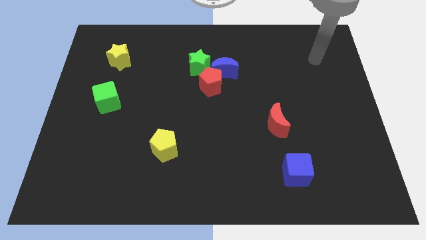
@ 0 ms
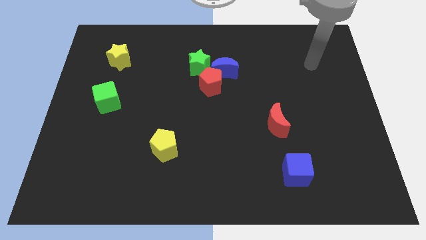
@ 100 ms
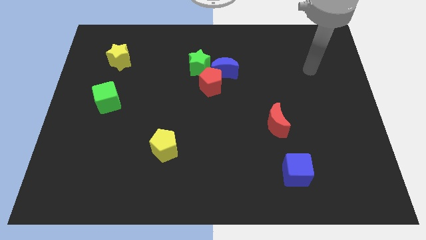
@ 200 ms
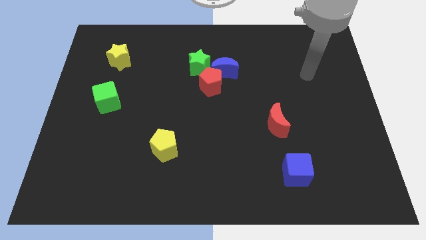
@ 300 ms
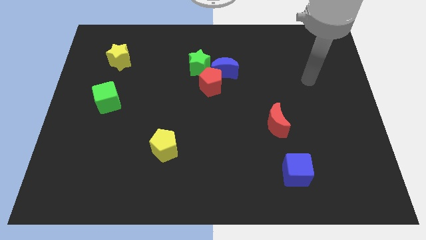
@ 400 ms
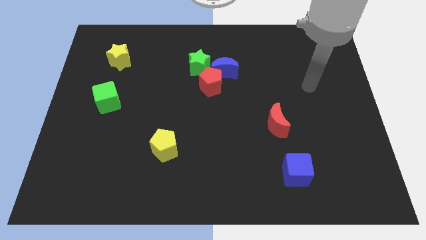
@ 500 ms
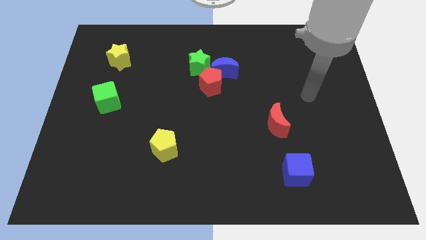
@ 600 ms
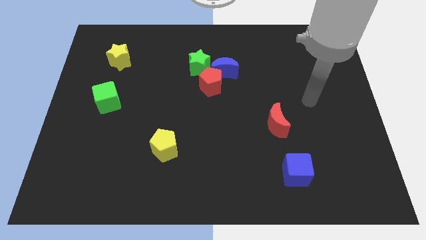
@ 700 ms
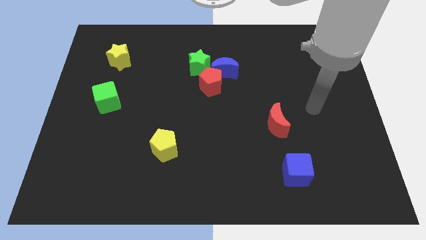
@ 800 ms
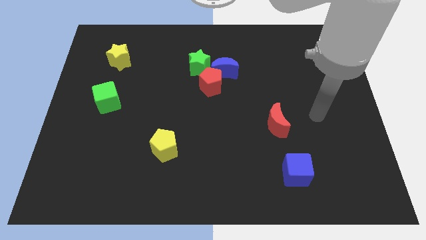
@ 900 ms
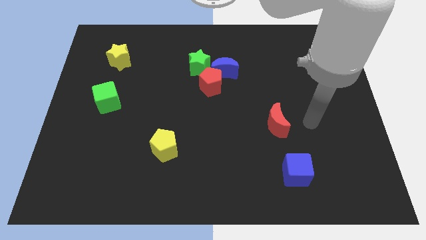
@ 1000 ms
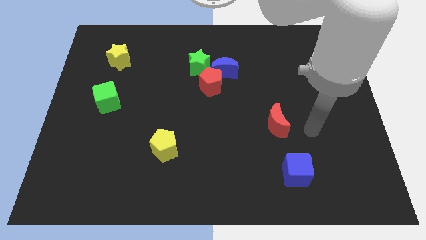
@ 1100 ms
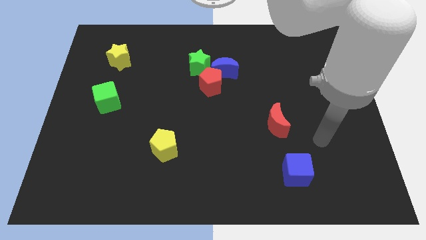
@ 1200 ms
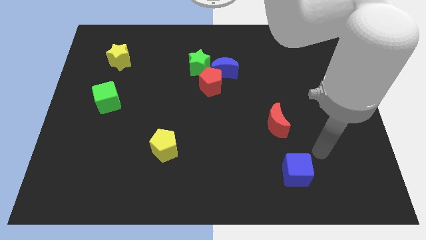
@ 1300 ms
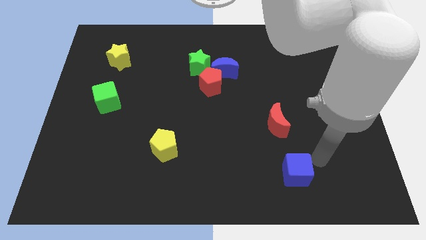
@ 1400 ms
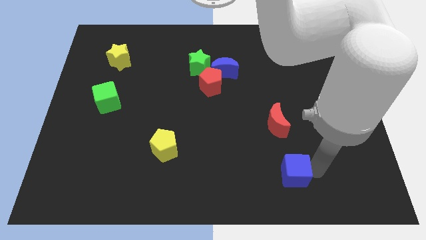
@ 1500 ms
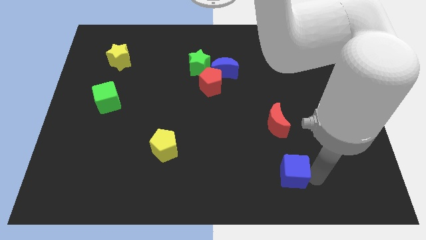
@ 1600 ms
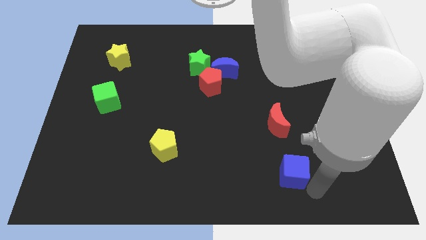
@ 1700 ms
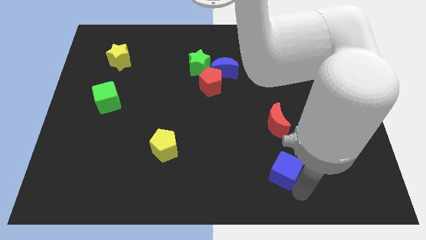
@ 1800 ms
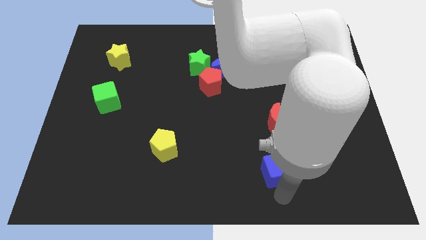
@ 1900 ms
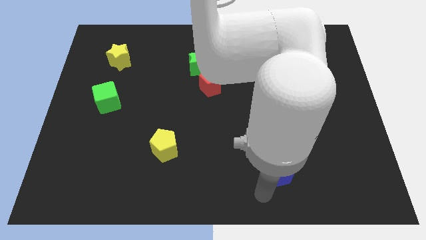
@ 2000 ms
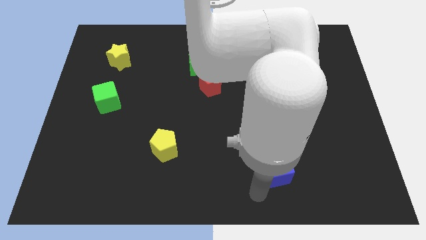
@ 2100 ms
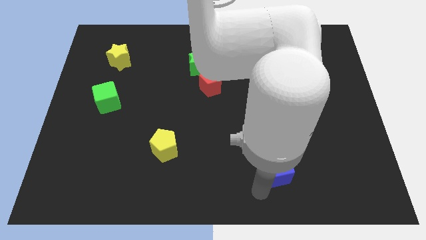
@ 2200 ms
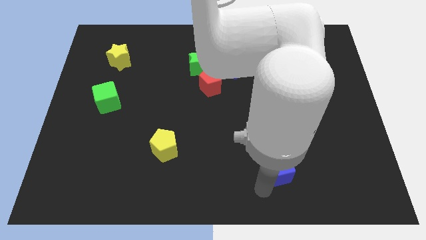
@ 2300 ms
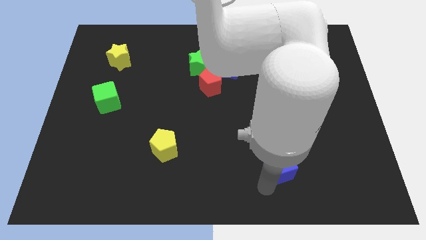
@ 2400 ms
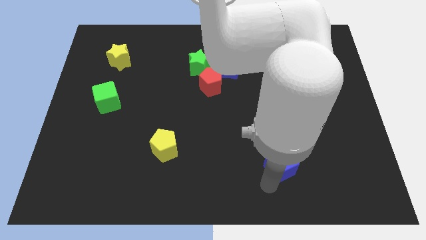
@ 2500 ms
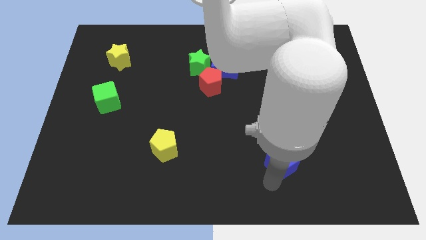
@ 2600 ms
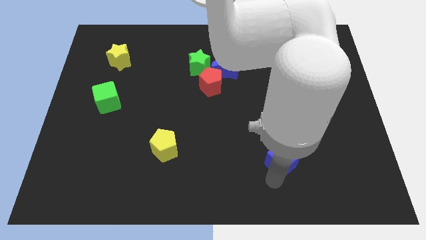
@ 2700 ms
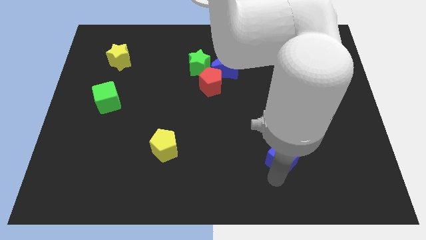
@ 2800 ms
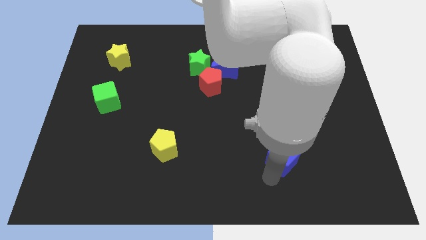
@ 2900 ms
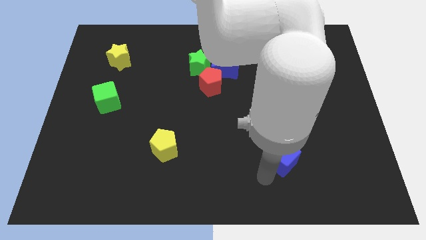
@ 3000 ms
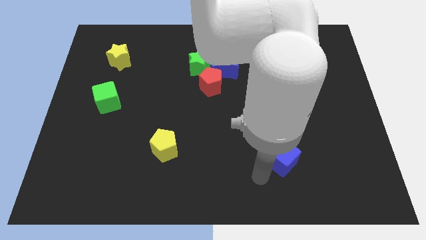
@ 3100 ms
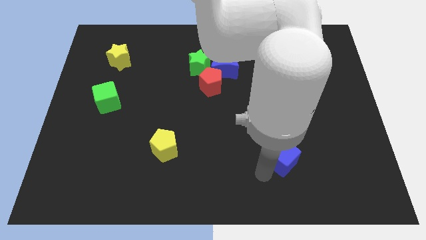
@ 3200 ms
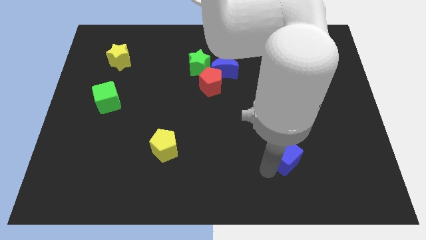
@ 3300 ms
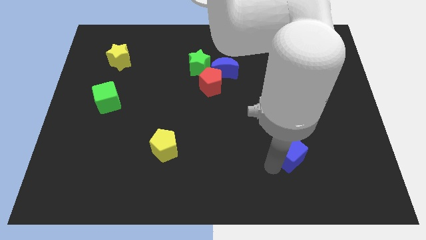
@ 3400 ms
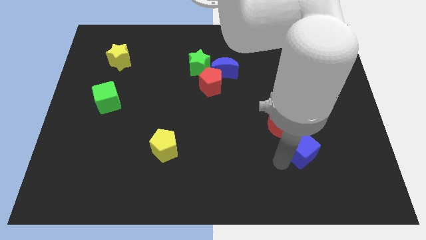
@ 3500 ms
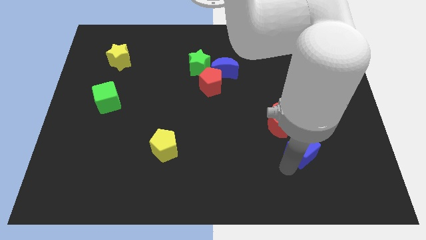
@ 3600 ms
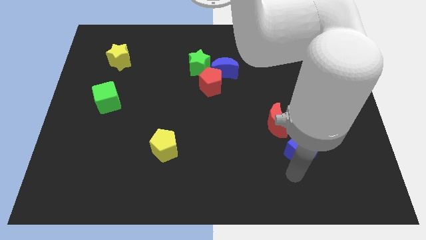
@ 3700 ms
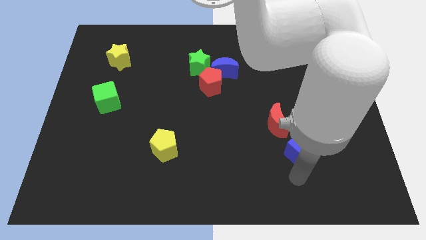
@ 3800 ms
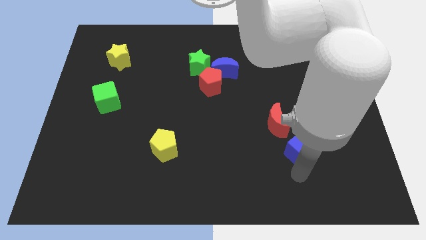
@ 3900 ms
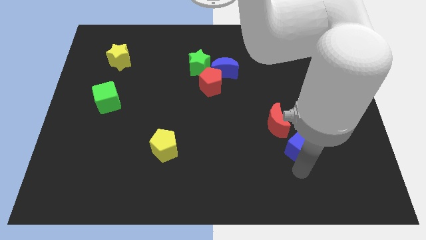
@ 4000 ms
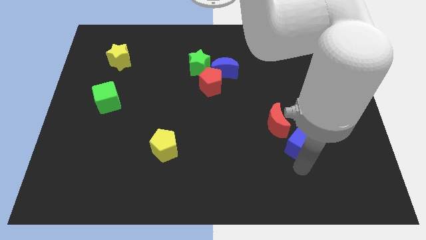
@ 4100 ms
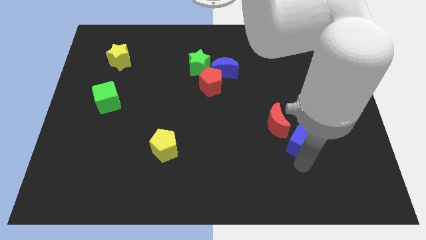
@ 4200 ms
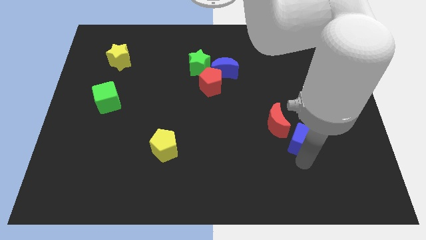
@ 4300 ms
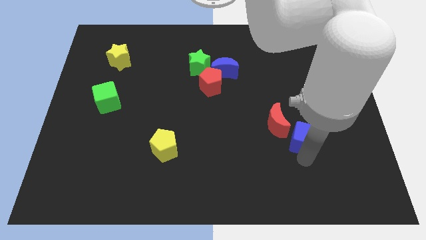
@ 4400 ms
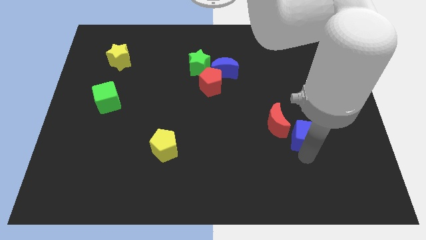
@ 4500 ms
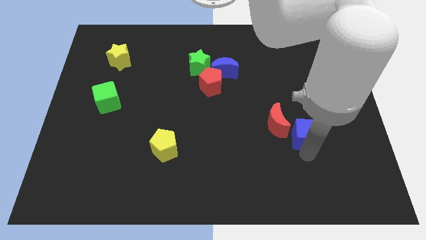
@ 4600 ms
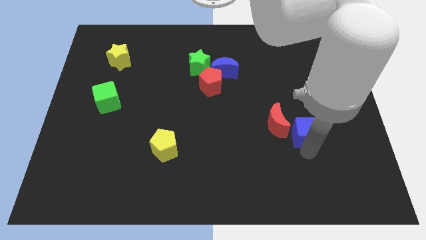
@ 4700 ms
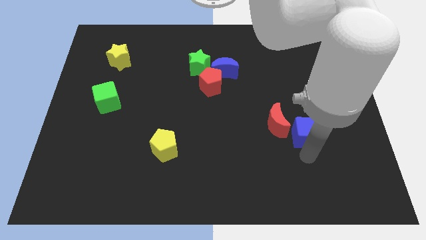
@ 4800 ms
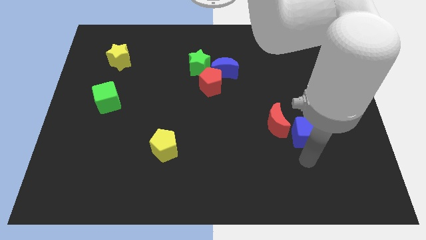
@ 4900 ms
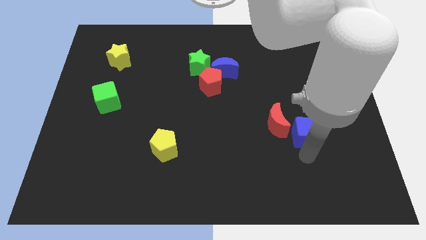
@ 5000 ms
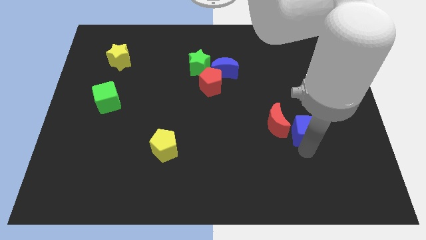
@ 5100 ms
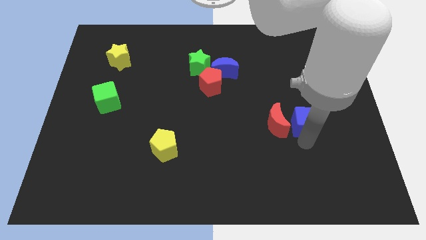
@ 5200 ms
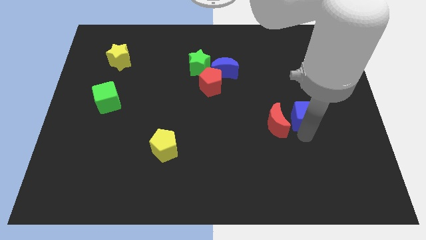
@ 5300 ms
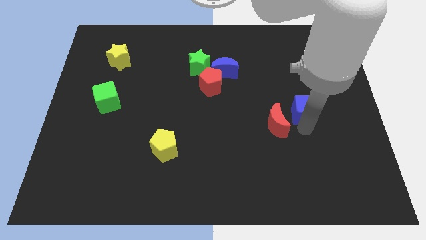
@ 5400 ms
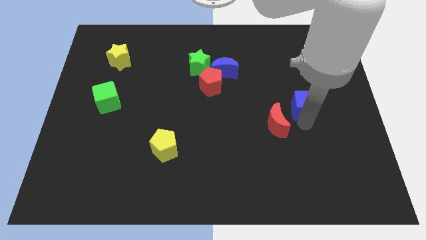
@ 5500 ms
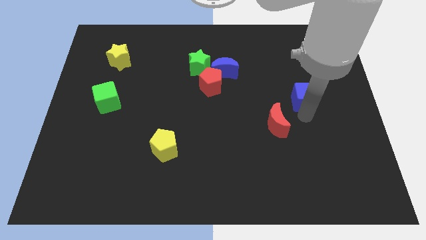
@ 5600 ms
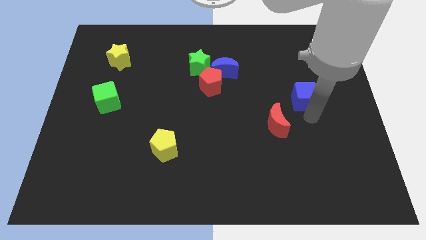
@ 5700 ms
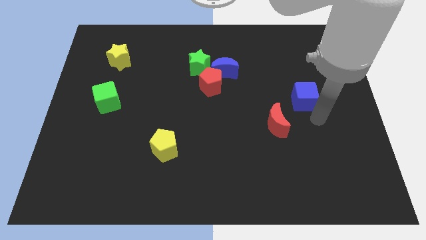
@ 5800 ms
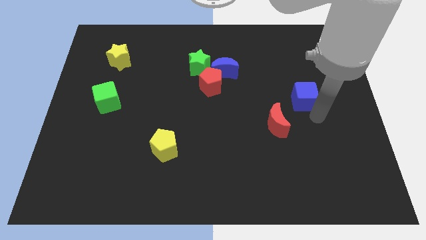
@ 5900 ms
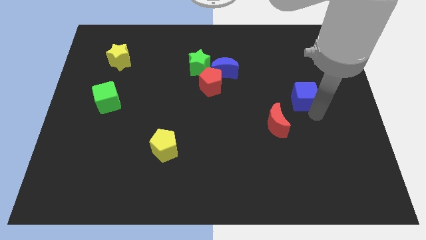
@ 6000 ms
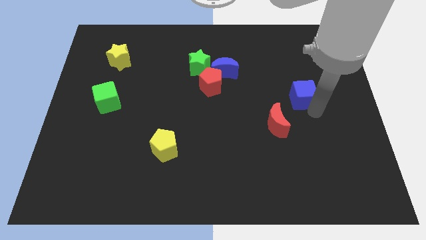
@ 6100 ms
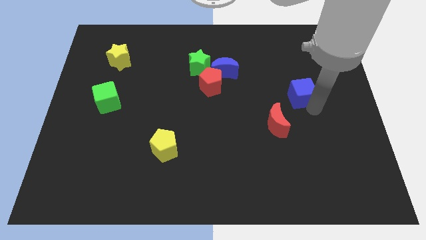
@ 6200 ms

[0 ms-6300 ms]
move the blue cube up

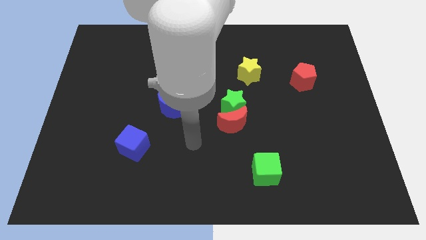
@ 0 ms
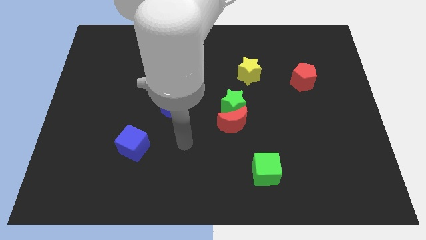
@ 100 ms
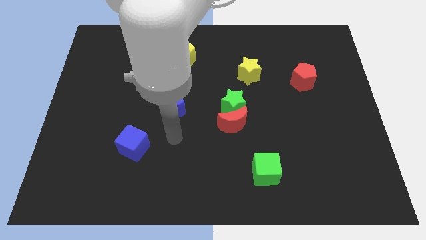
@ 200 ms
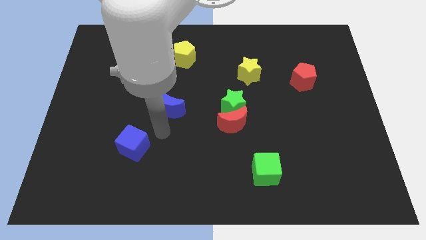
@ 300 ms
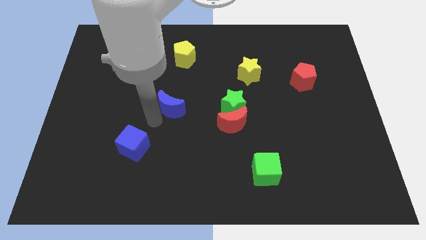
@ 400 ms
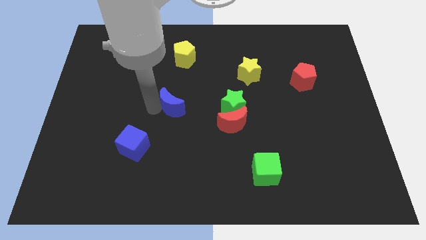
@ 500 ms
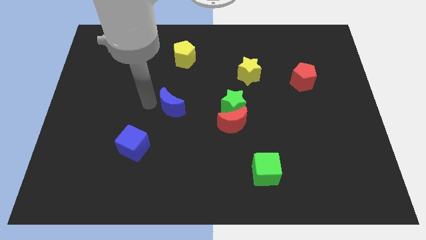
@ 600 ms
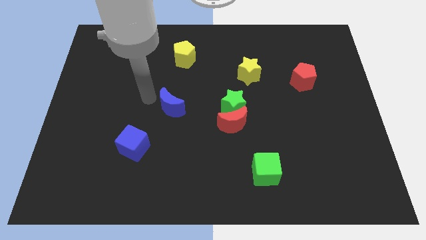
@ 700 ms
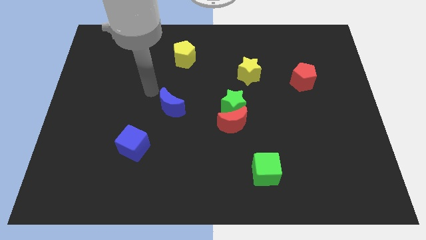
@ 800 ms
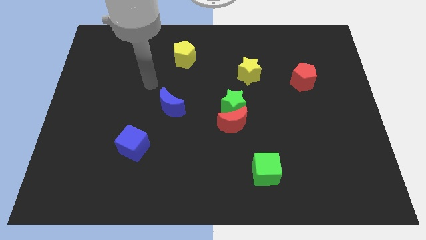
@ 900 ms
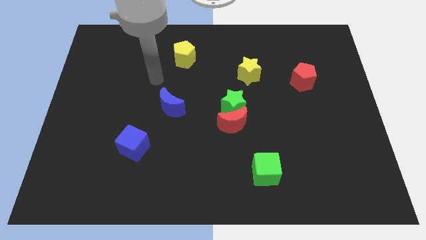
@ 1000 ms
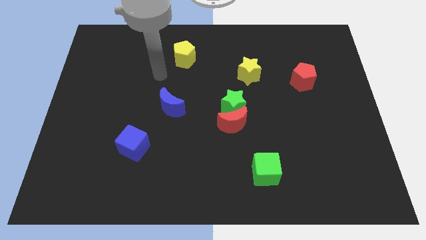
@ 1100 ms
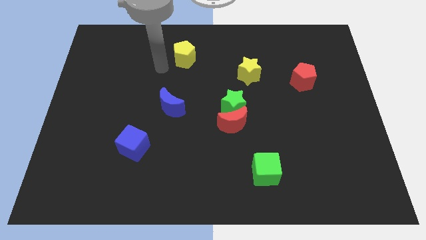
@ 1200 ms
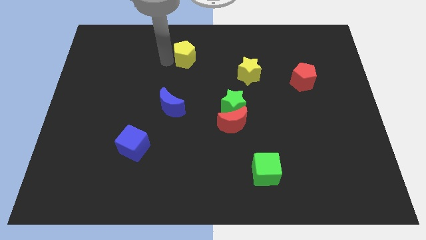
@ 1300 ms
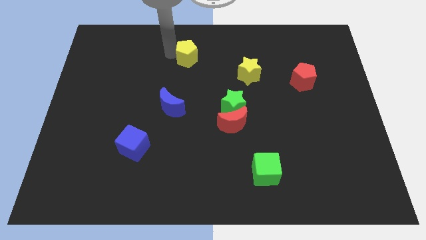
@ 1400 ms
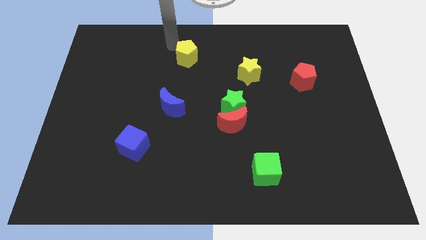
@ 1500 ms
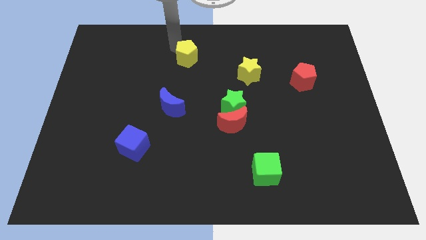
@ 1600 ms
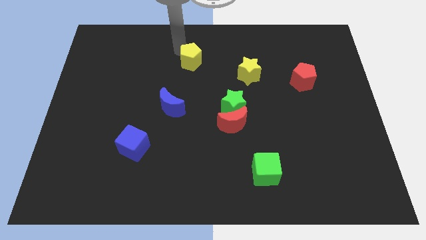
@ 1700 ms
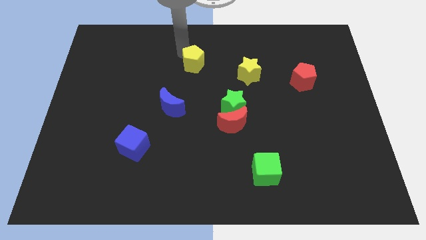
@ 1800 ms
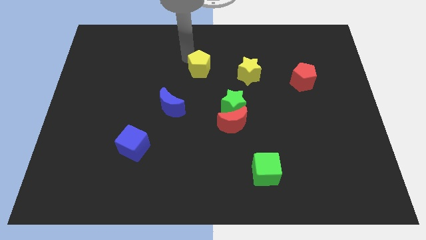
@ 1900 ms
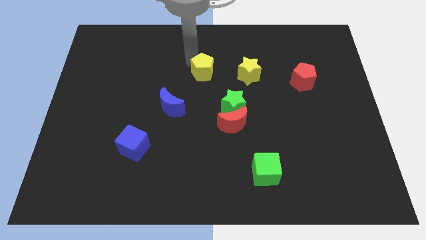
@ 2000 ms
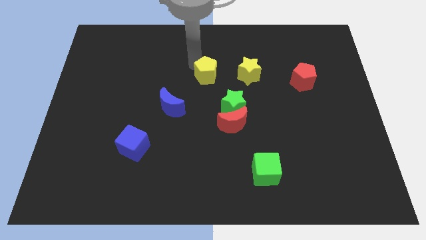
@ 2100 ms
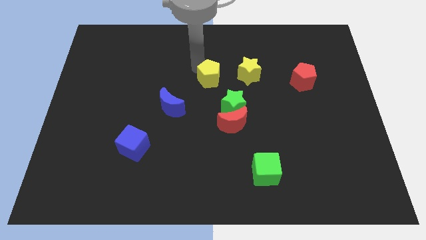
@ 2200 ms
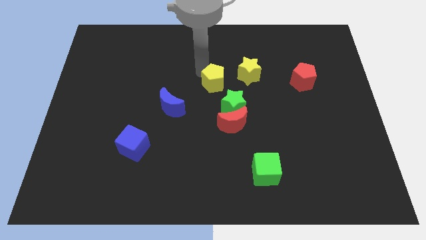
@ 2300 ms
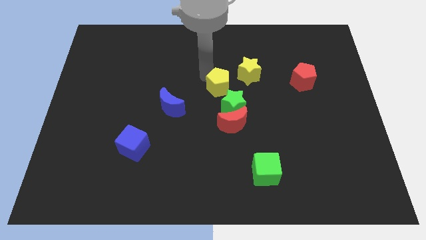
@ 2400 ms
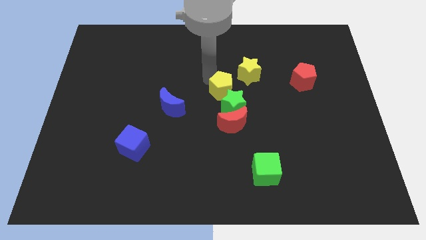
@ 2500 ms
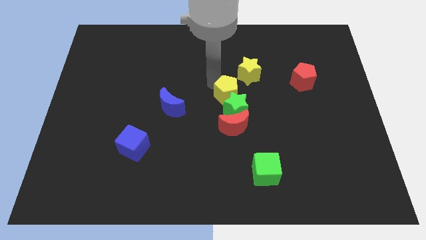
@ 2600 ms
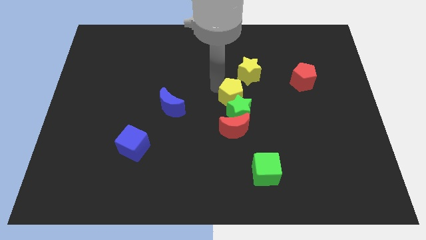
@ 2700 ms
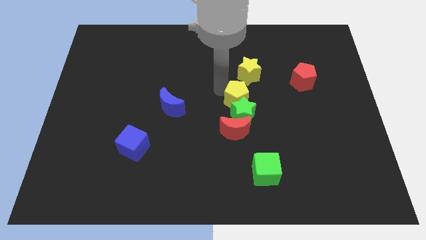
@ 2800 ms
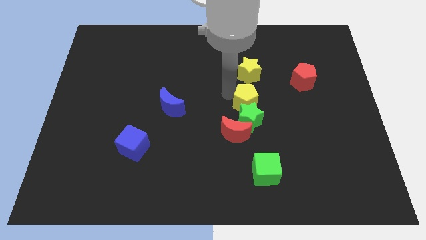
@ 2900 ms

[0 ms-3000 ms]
push the yellow pentagon downwards and then right
